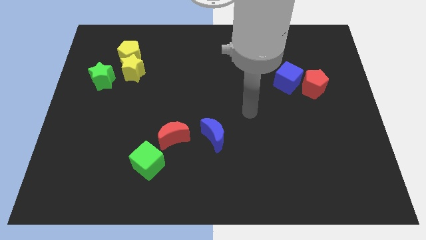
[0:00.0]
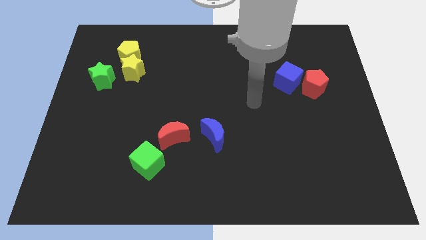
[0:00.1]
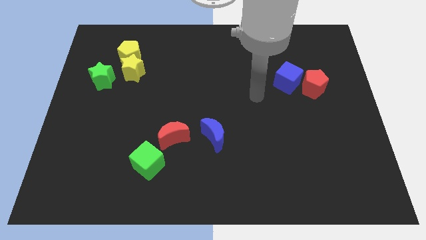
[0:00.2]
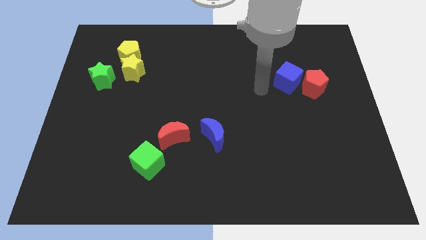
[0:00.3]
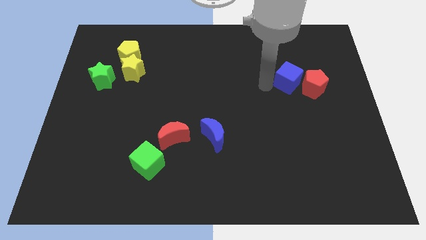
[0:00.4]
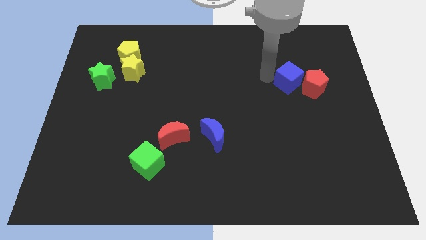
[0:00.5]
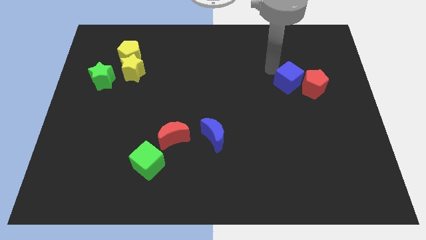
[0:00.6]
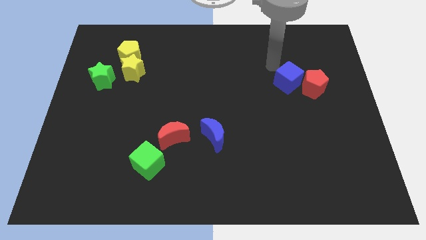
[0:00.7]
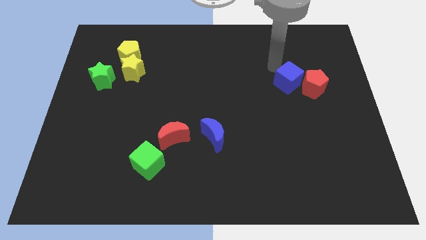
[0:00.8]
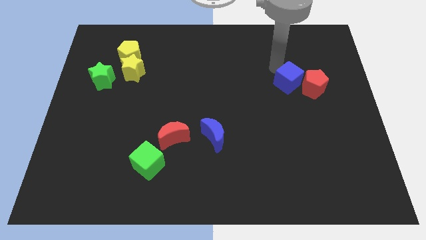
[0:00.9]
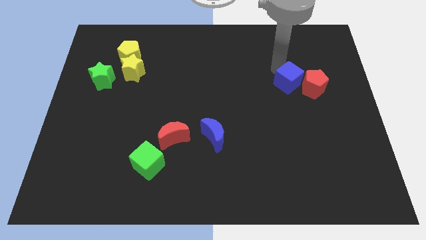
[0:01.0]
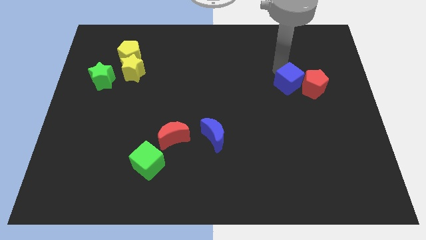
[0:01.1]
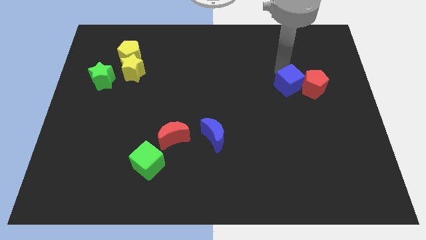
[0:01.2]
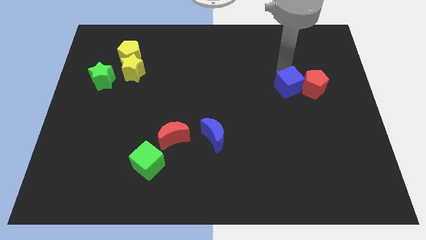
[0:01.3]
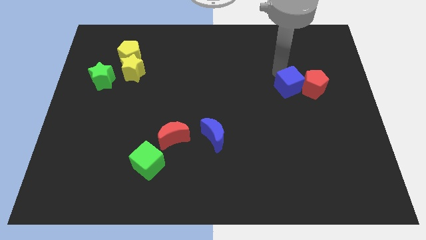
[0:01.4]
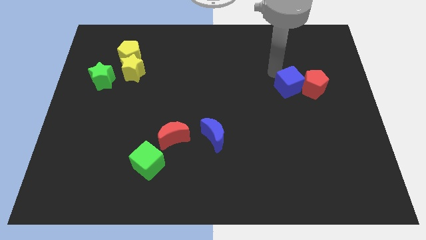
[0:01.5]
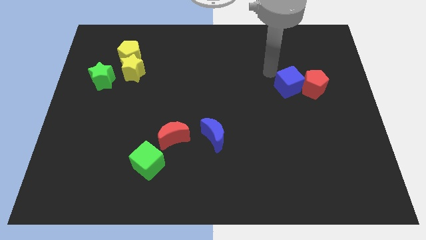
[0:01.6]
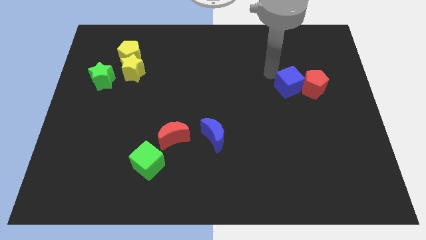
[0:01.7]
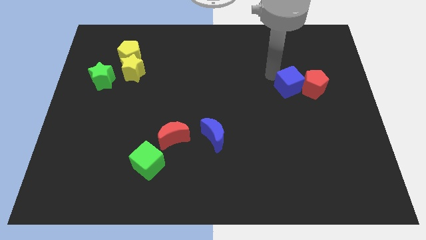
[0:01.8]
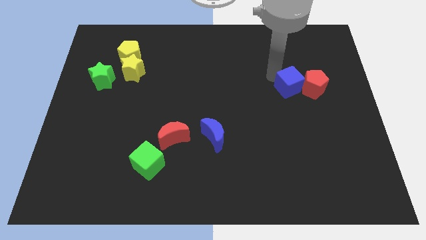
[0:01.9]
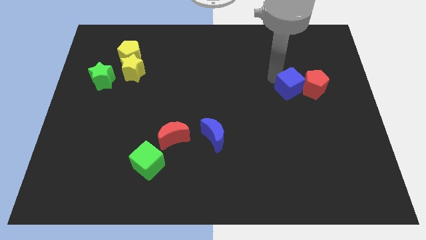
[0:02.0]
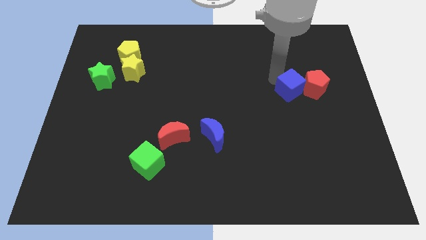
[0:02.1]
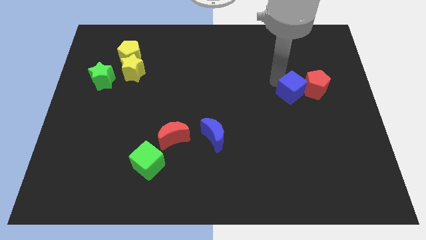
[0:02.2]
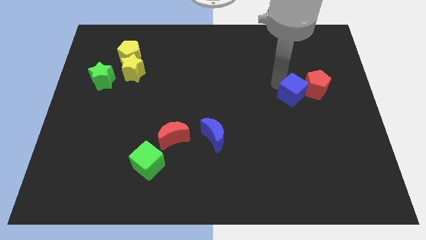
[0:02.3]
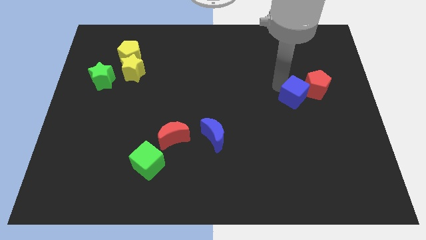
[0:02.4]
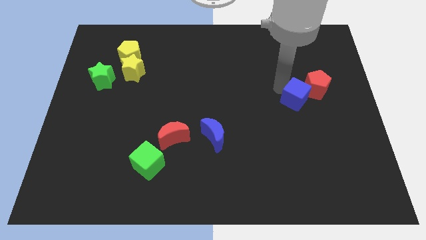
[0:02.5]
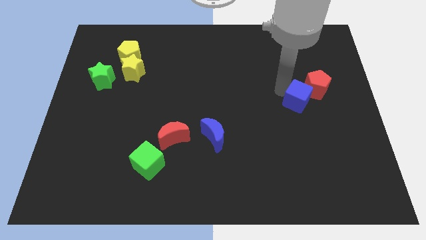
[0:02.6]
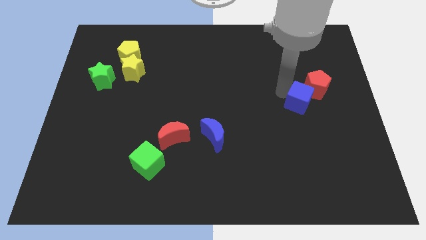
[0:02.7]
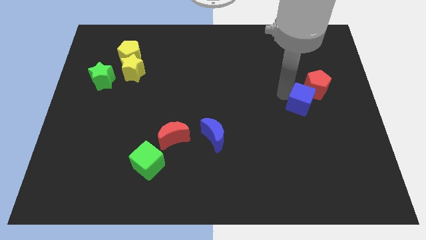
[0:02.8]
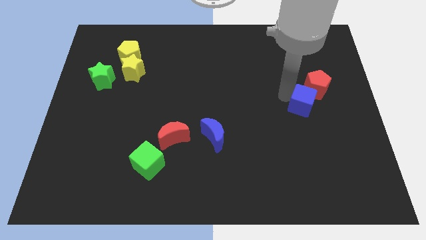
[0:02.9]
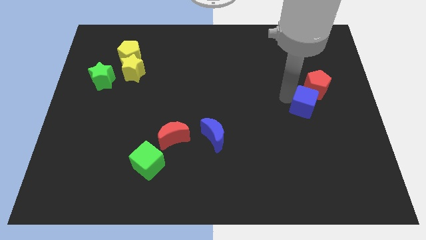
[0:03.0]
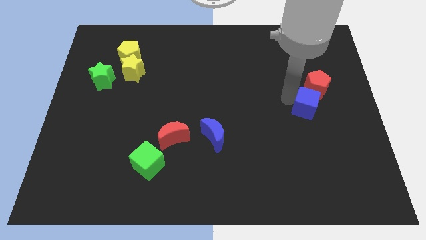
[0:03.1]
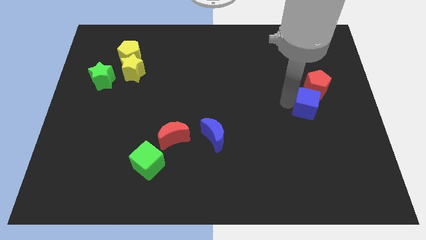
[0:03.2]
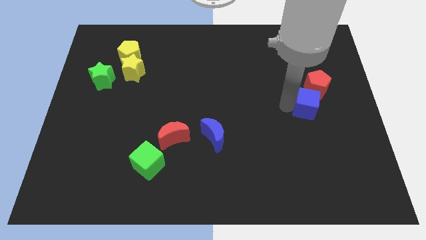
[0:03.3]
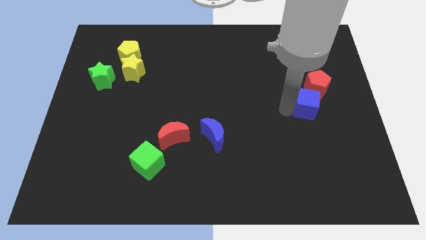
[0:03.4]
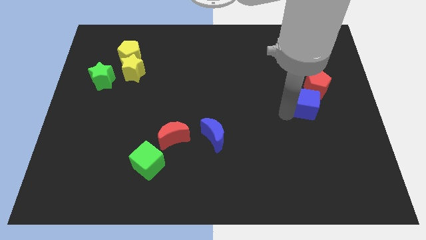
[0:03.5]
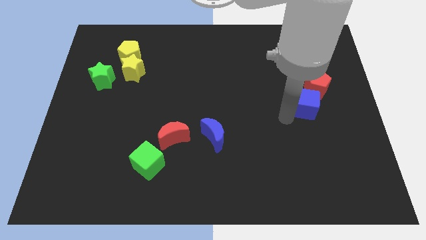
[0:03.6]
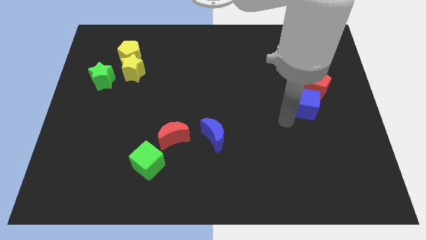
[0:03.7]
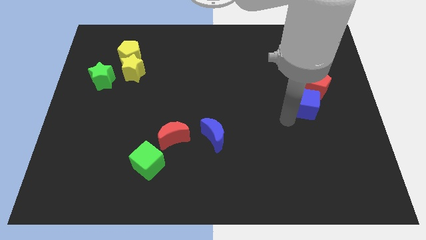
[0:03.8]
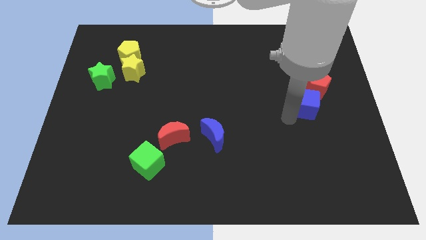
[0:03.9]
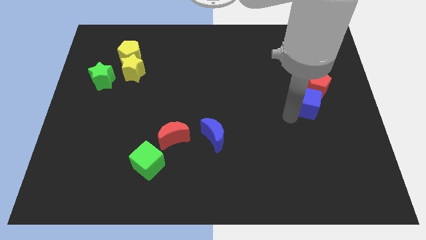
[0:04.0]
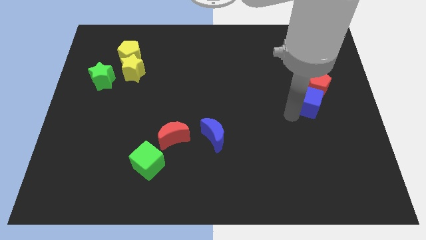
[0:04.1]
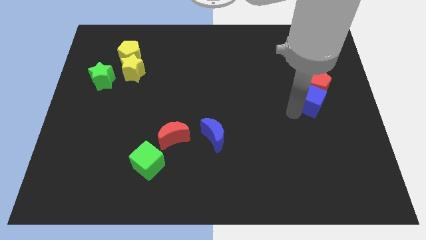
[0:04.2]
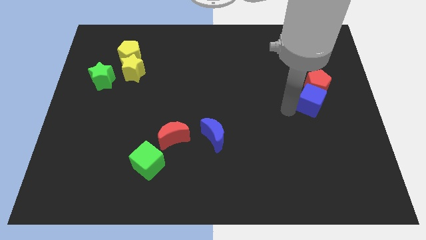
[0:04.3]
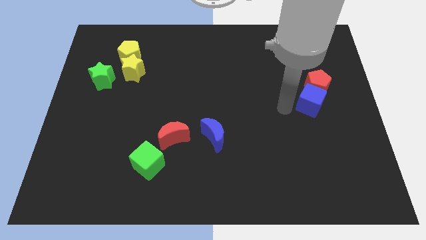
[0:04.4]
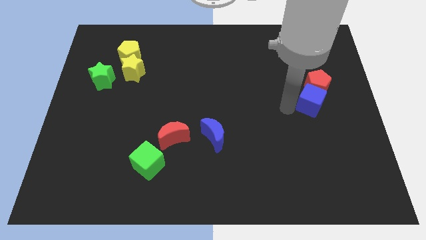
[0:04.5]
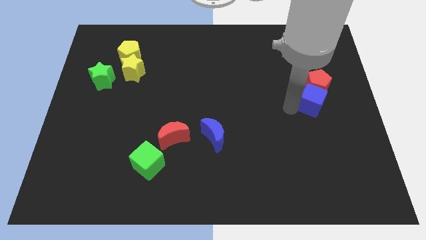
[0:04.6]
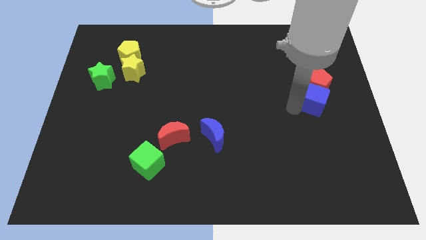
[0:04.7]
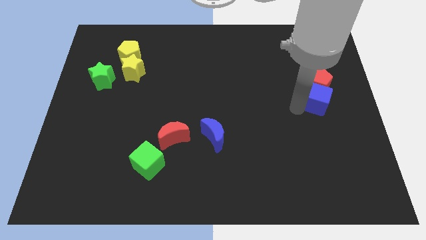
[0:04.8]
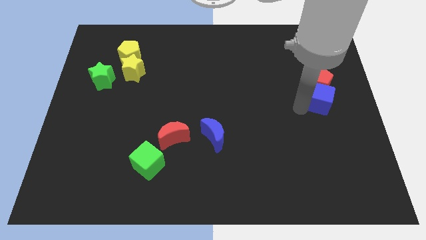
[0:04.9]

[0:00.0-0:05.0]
put the blue cube to the center right

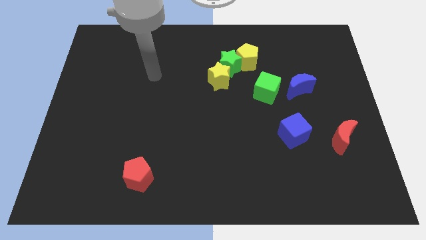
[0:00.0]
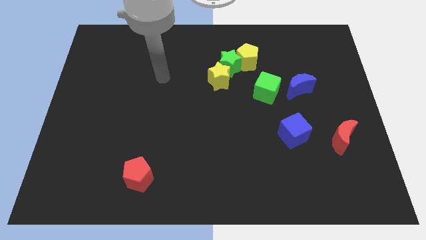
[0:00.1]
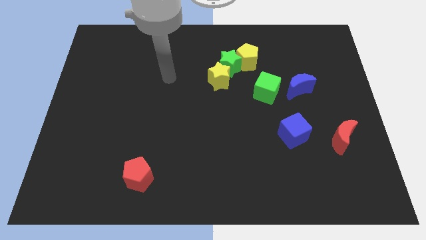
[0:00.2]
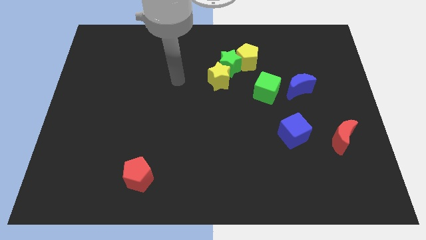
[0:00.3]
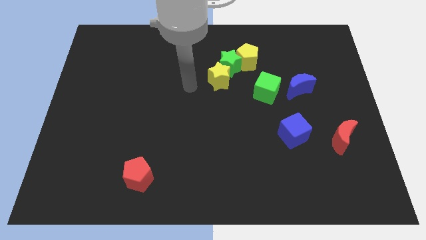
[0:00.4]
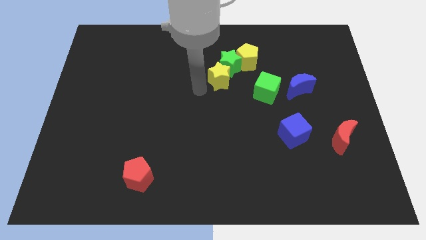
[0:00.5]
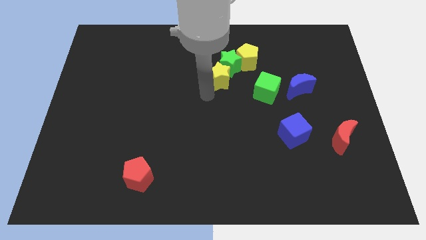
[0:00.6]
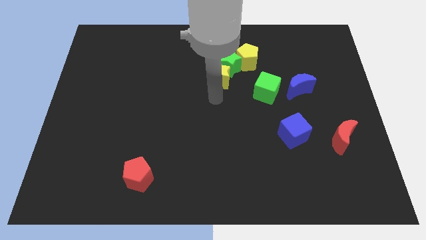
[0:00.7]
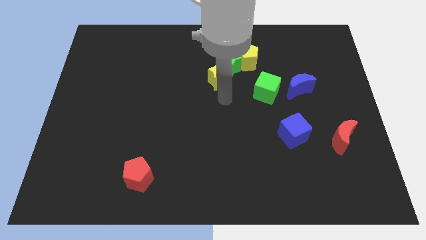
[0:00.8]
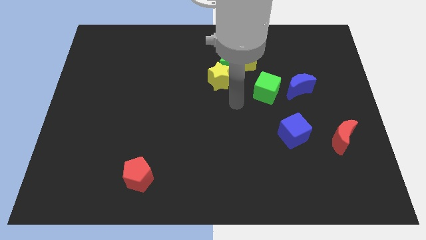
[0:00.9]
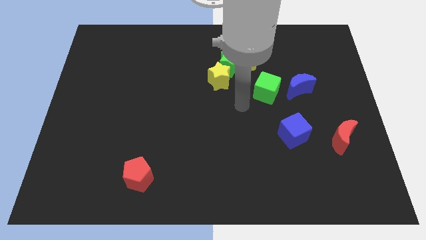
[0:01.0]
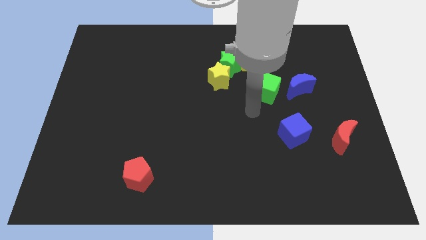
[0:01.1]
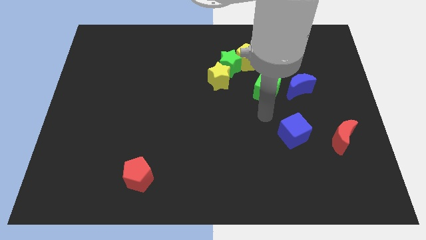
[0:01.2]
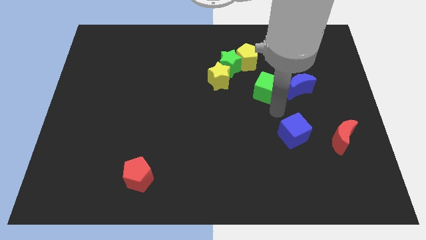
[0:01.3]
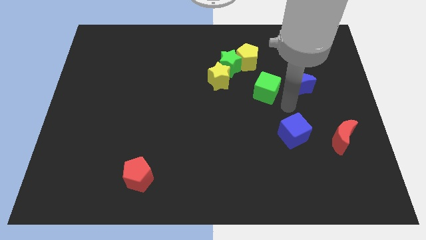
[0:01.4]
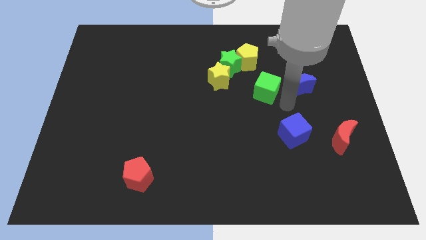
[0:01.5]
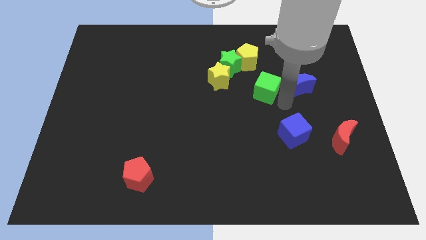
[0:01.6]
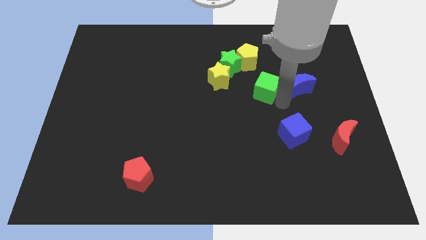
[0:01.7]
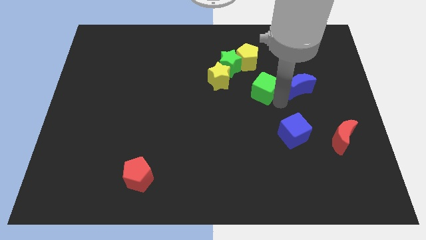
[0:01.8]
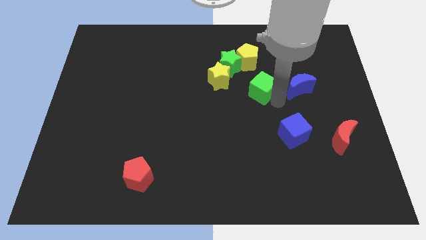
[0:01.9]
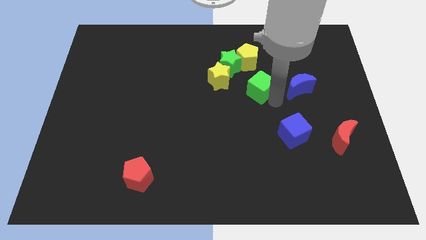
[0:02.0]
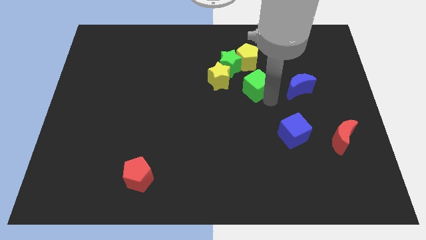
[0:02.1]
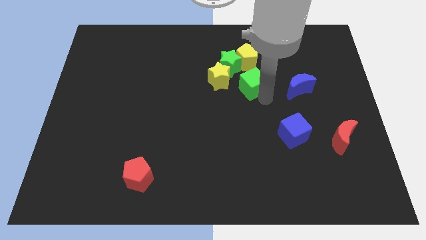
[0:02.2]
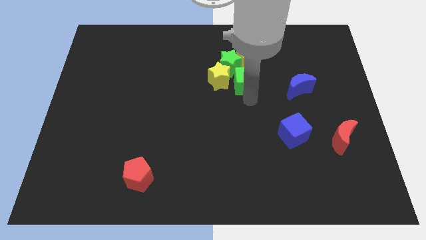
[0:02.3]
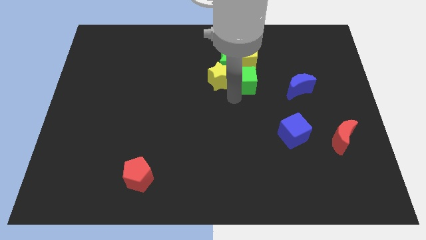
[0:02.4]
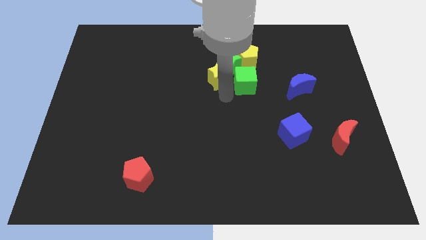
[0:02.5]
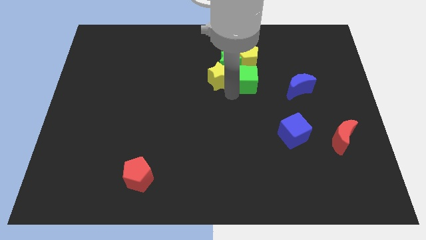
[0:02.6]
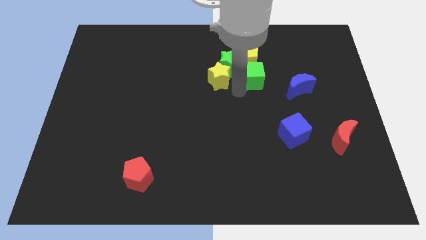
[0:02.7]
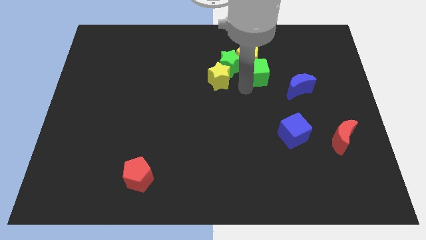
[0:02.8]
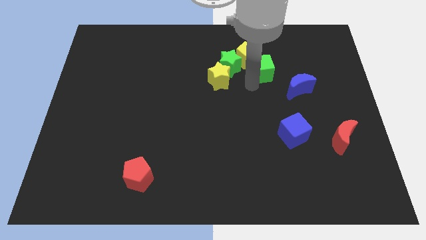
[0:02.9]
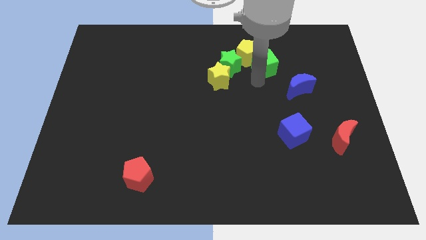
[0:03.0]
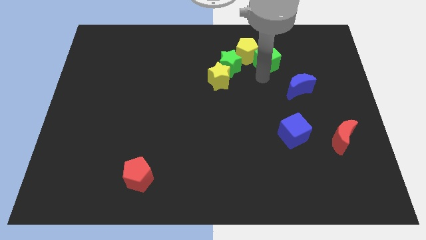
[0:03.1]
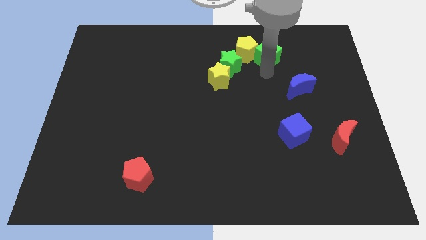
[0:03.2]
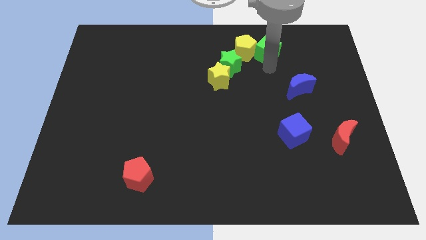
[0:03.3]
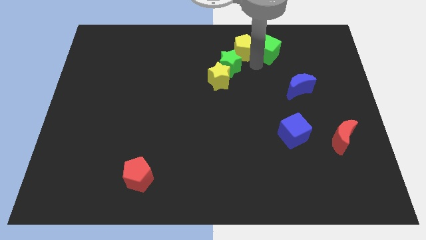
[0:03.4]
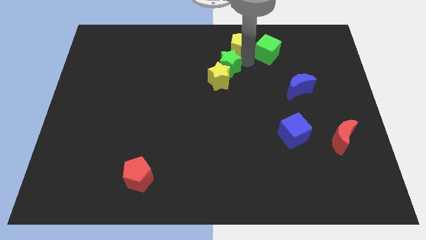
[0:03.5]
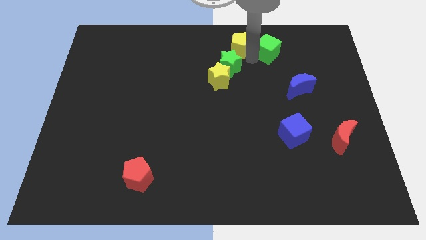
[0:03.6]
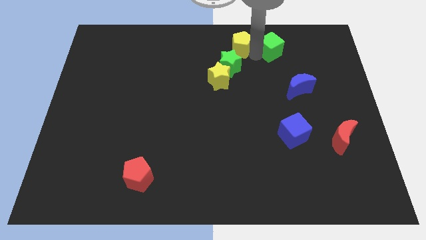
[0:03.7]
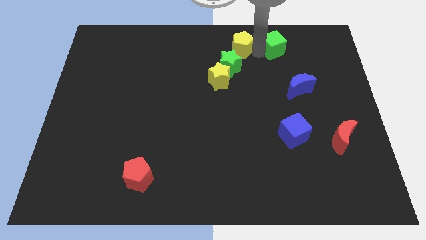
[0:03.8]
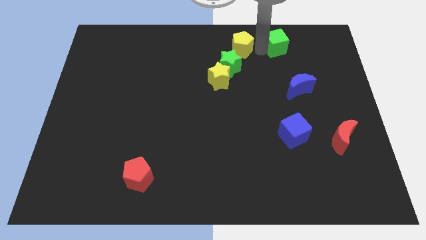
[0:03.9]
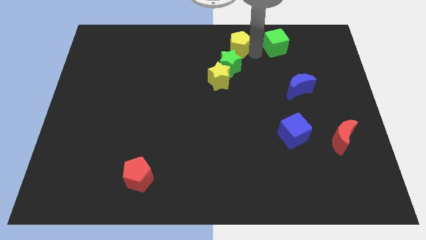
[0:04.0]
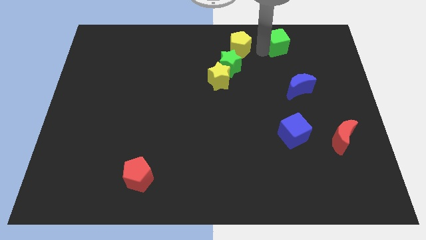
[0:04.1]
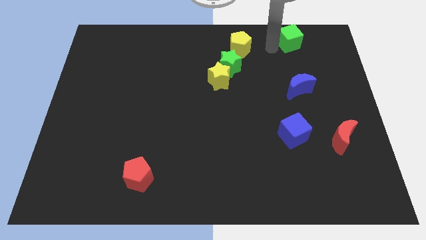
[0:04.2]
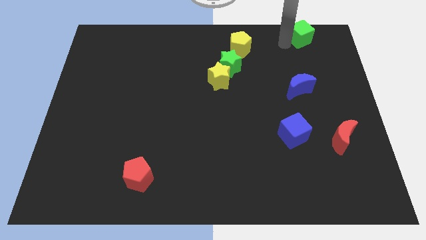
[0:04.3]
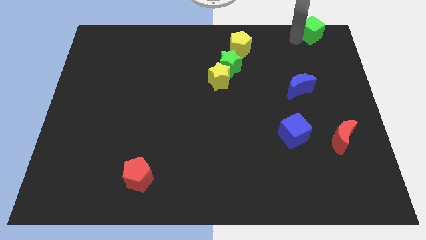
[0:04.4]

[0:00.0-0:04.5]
move the green cube to the top right of the board
